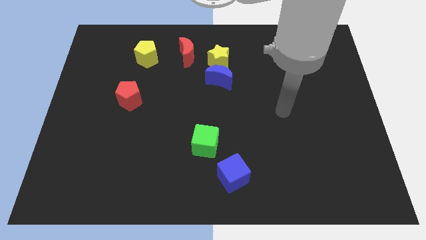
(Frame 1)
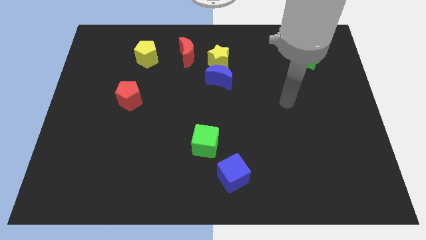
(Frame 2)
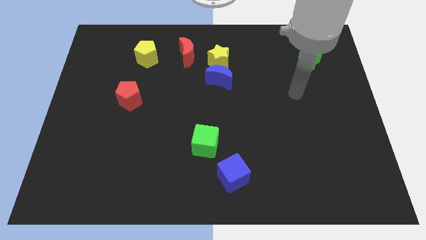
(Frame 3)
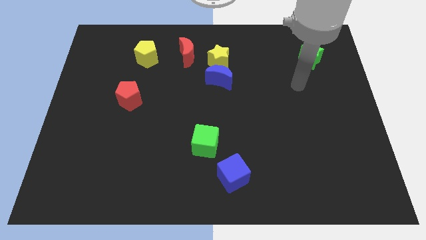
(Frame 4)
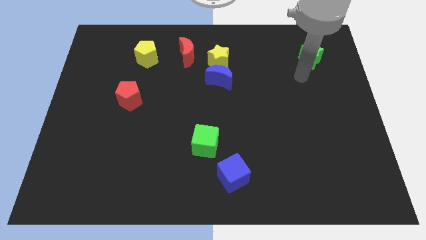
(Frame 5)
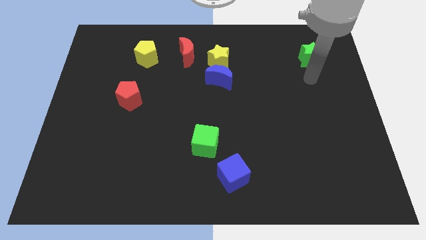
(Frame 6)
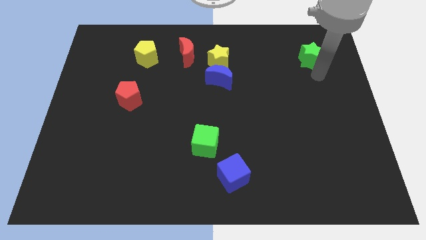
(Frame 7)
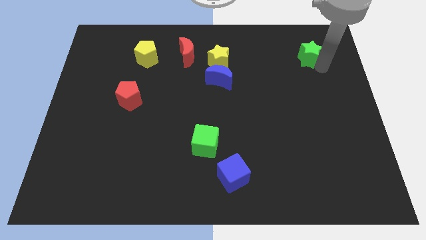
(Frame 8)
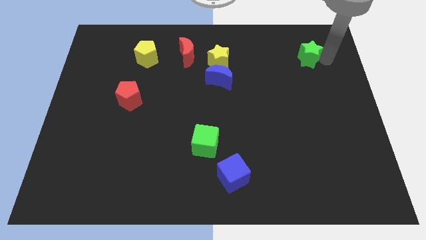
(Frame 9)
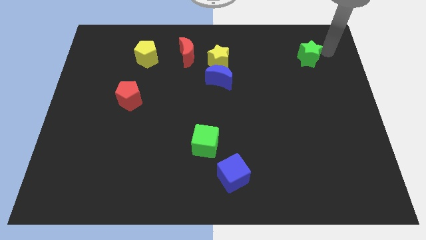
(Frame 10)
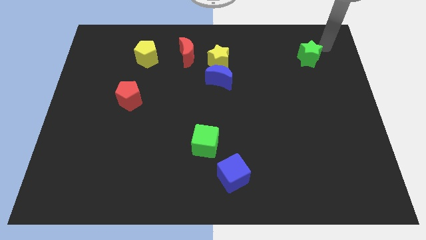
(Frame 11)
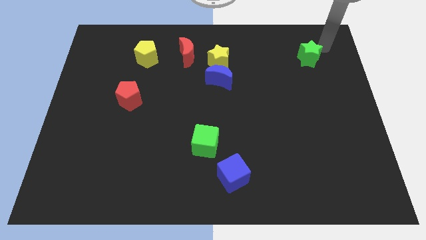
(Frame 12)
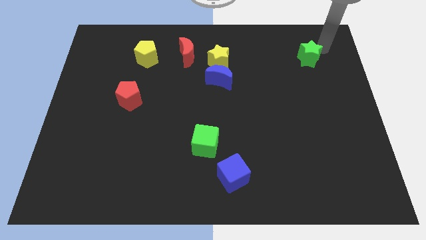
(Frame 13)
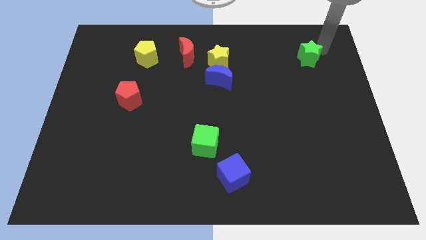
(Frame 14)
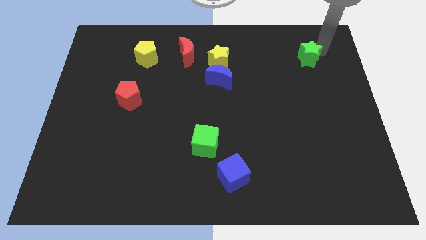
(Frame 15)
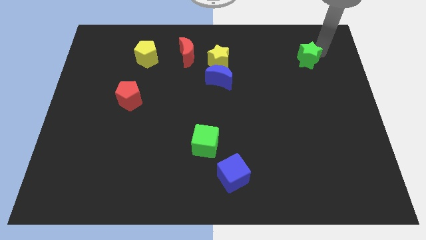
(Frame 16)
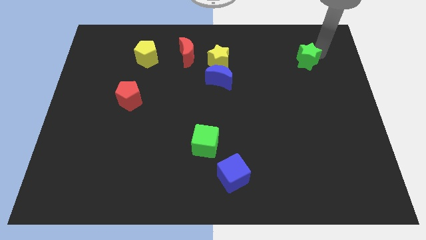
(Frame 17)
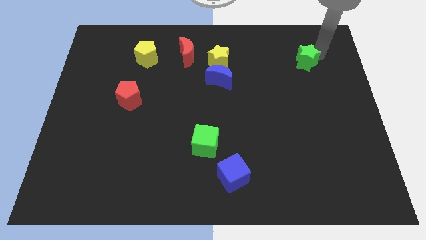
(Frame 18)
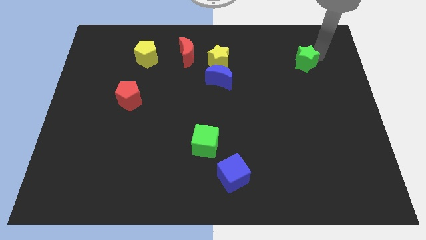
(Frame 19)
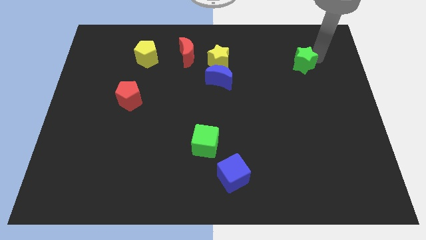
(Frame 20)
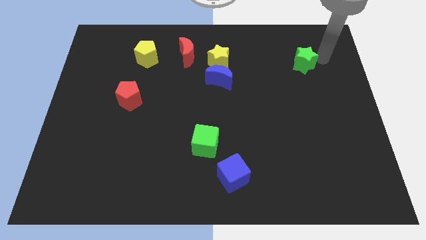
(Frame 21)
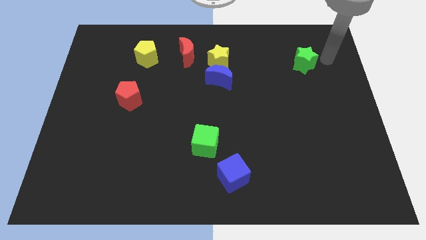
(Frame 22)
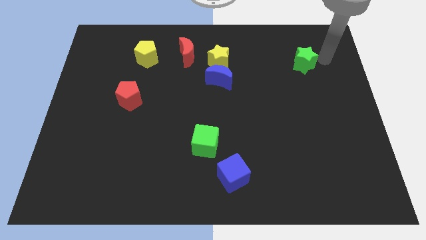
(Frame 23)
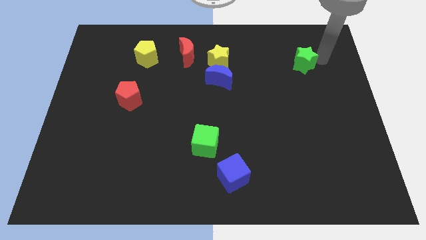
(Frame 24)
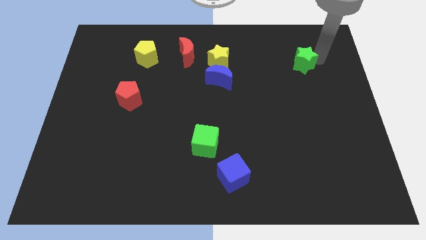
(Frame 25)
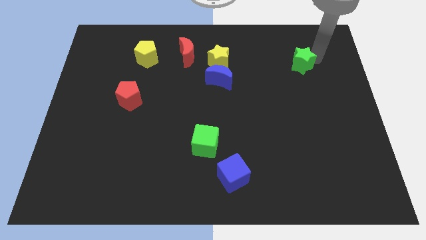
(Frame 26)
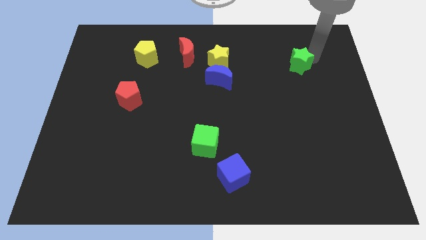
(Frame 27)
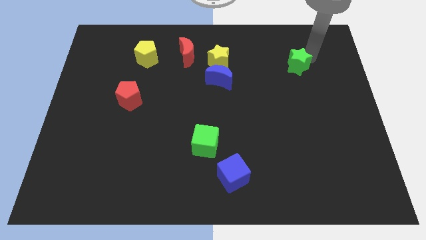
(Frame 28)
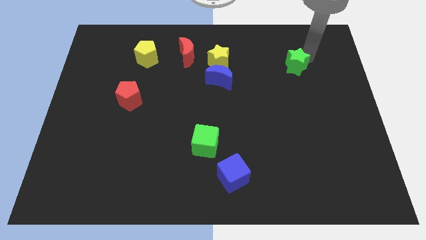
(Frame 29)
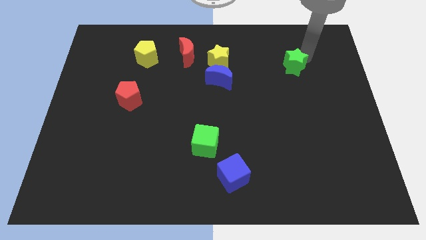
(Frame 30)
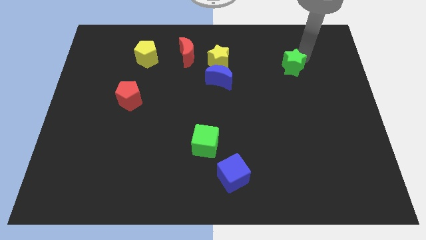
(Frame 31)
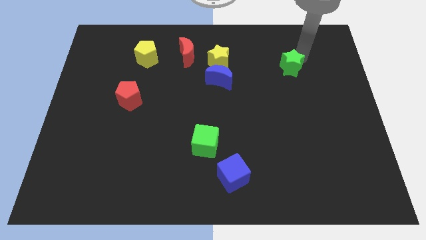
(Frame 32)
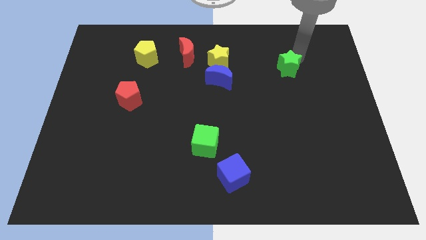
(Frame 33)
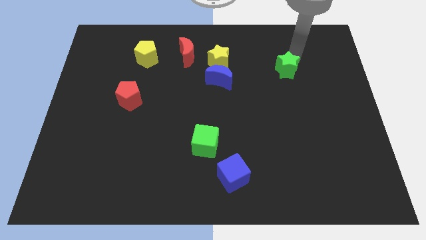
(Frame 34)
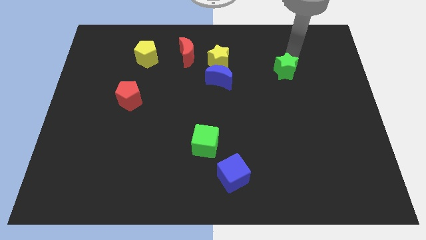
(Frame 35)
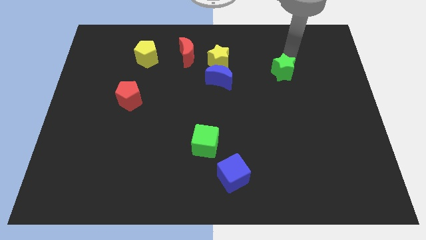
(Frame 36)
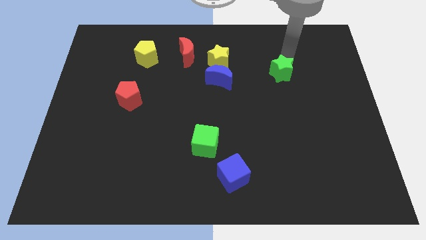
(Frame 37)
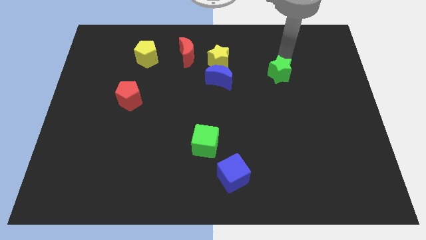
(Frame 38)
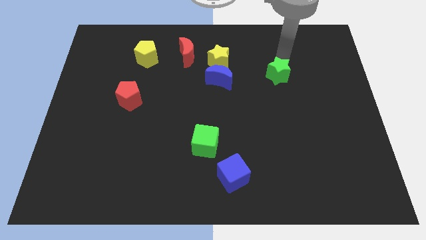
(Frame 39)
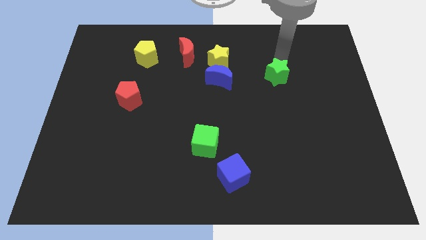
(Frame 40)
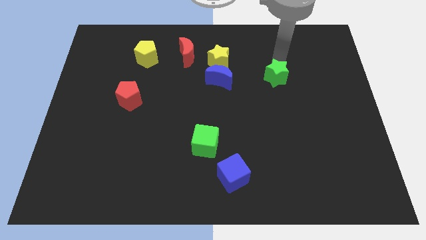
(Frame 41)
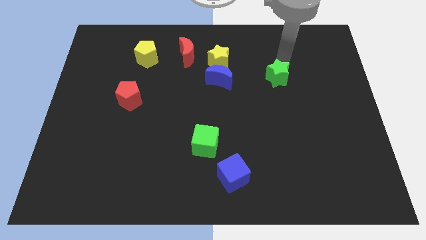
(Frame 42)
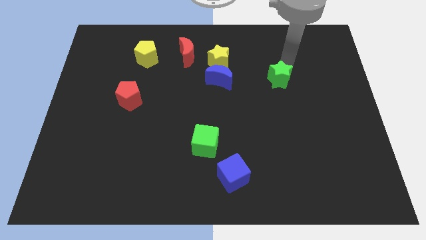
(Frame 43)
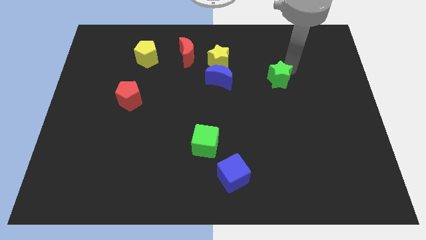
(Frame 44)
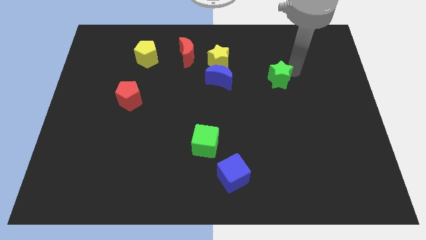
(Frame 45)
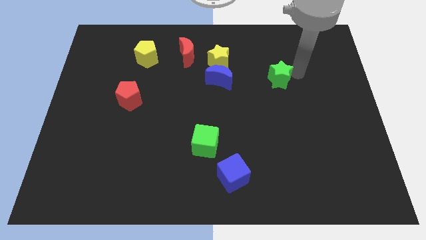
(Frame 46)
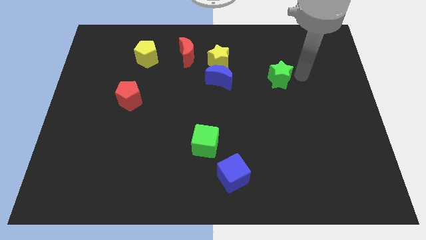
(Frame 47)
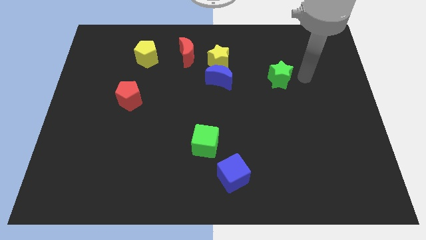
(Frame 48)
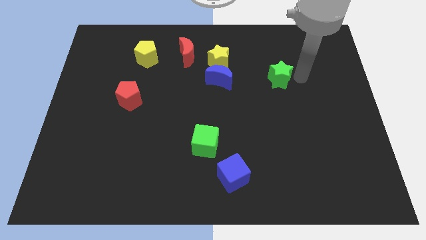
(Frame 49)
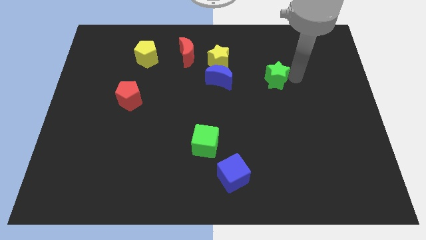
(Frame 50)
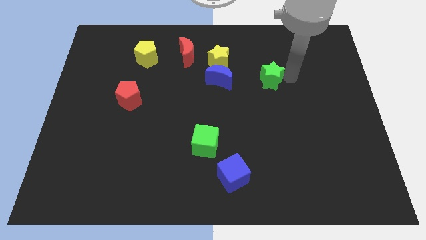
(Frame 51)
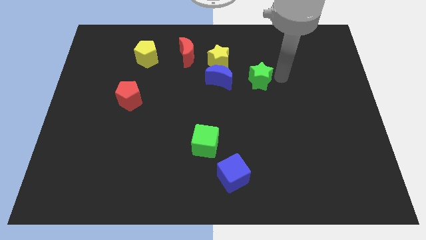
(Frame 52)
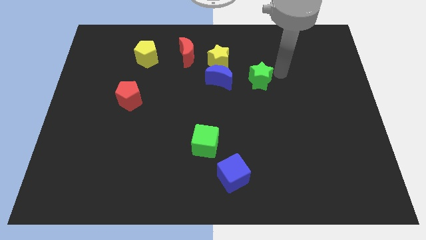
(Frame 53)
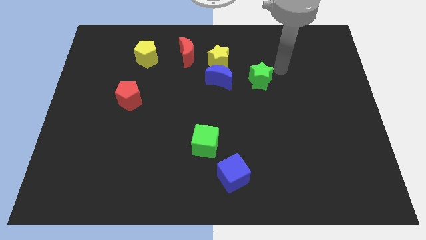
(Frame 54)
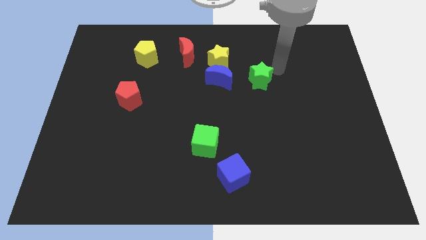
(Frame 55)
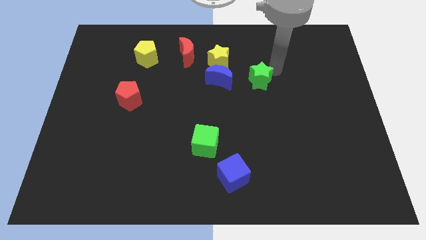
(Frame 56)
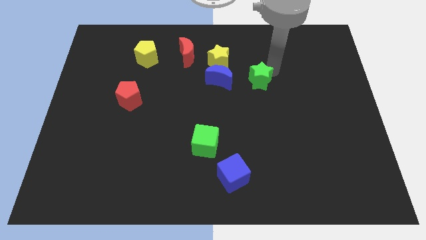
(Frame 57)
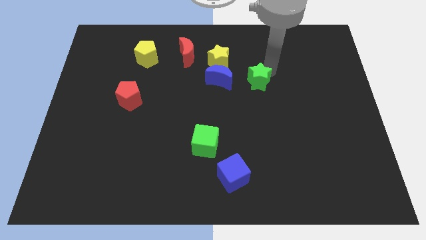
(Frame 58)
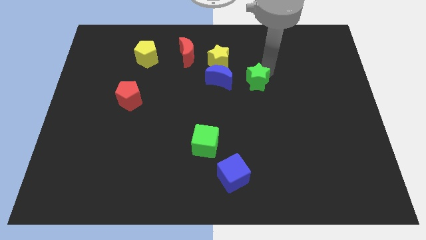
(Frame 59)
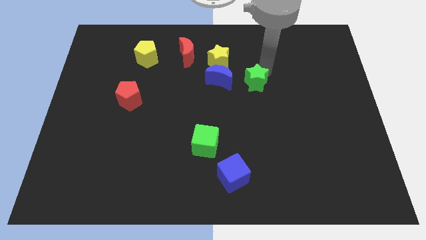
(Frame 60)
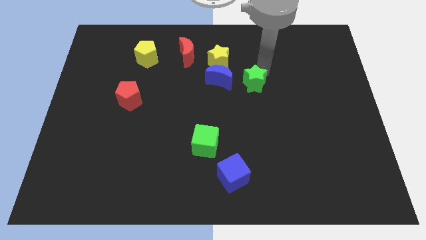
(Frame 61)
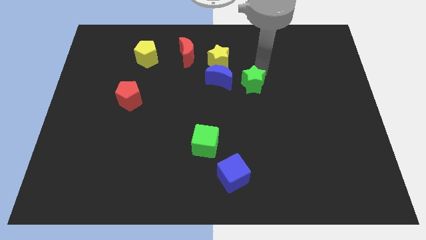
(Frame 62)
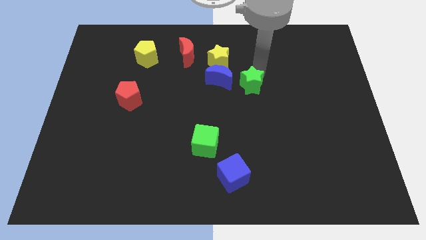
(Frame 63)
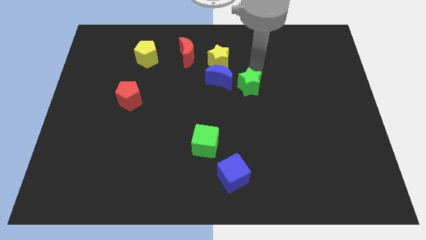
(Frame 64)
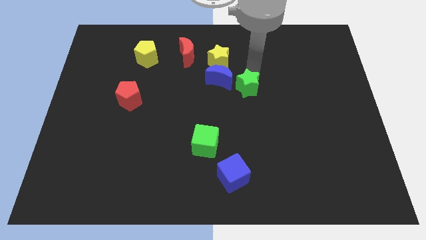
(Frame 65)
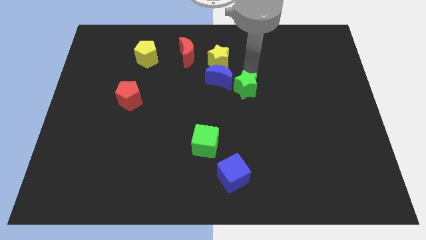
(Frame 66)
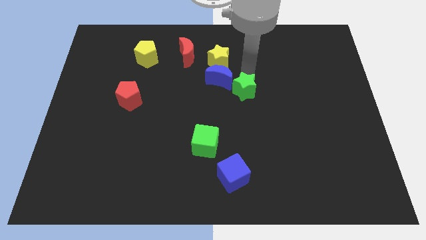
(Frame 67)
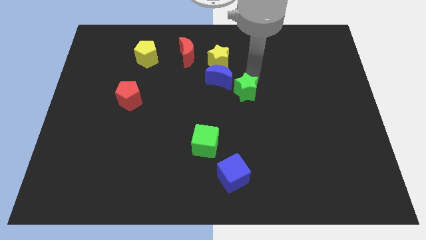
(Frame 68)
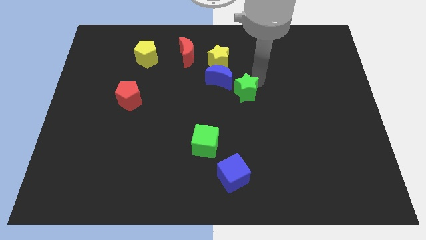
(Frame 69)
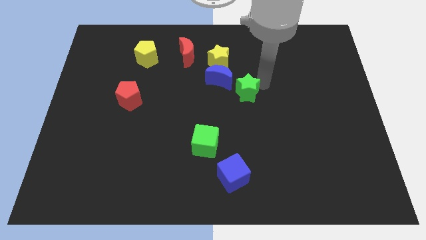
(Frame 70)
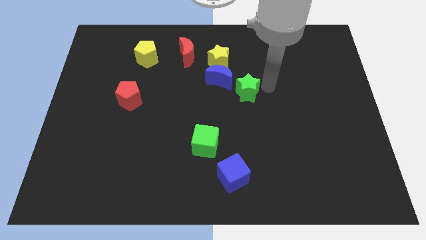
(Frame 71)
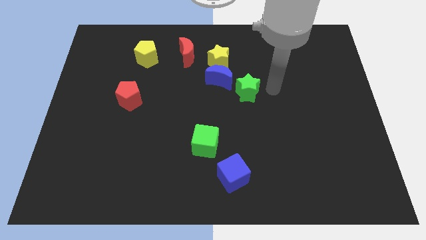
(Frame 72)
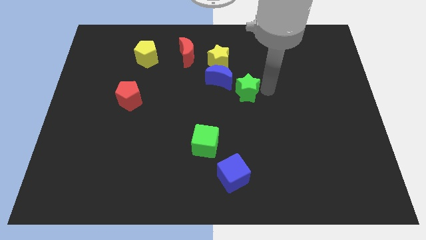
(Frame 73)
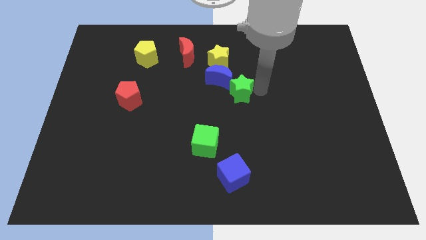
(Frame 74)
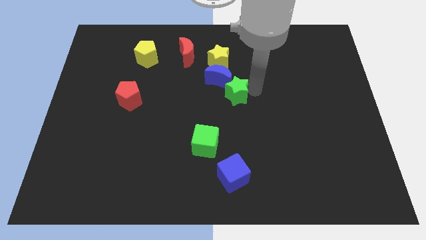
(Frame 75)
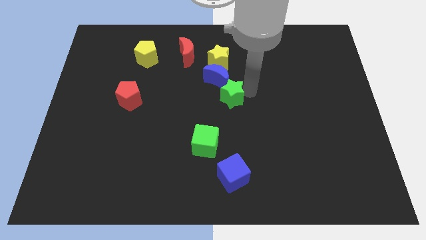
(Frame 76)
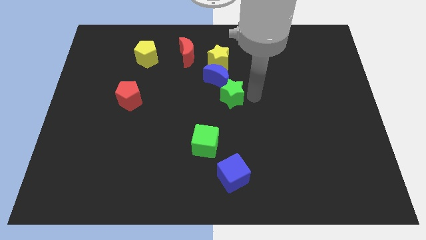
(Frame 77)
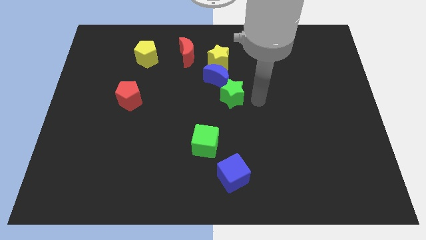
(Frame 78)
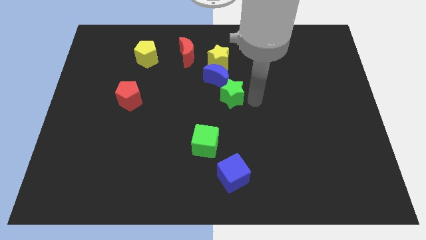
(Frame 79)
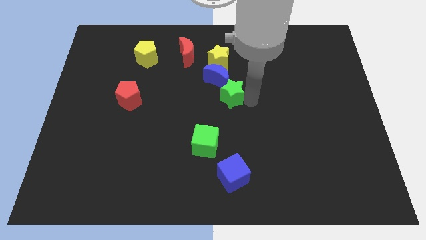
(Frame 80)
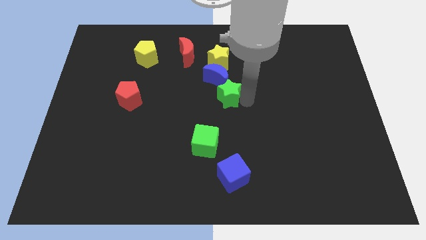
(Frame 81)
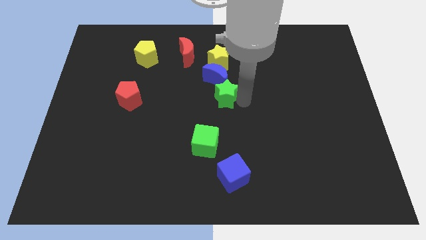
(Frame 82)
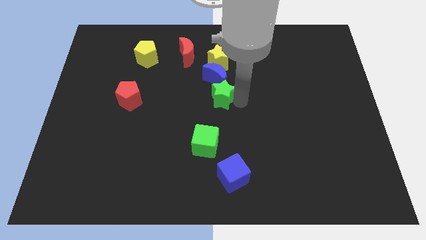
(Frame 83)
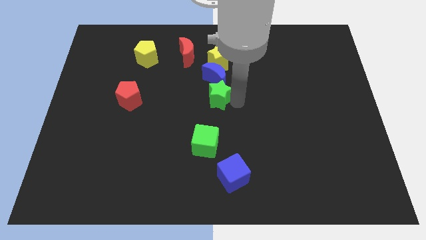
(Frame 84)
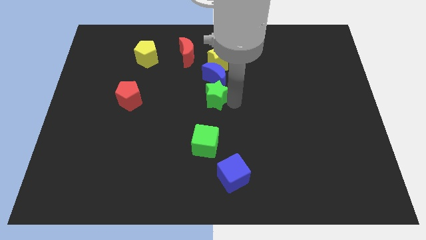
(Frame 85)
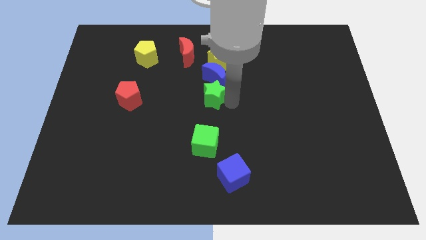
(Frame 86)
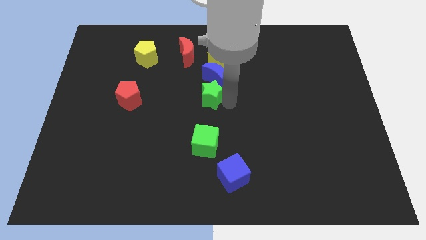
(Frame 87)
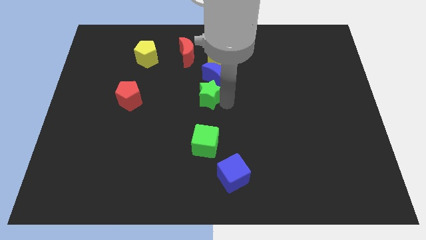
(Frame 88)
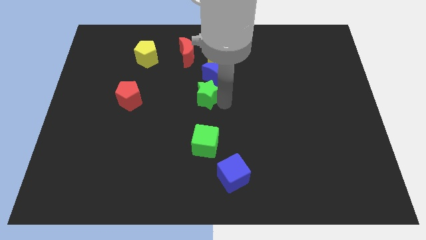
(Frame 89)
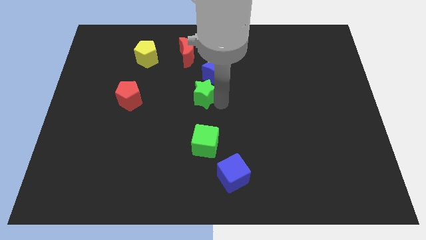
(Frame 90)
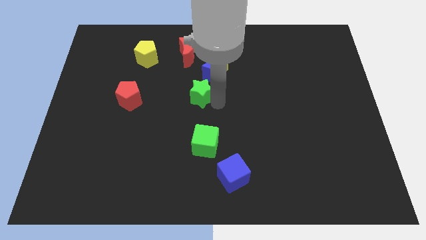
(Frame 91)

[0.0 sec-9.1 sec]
push the green star below the red moon
